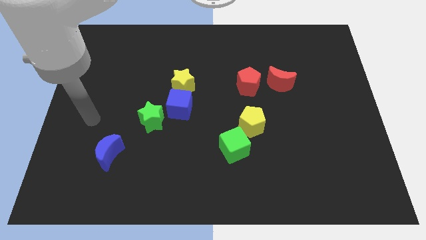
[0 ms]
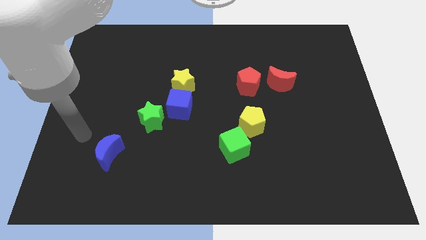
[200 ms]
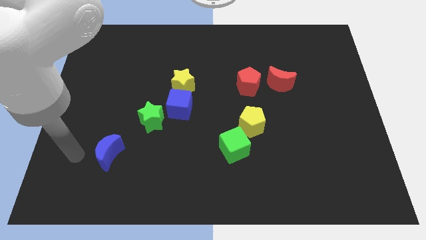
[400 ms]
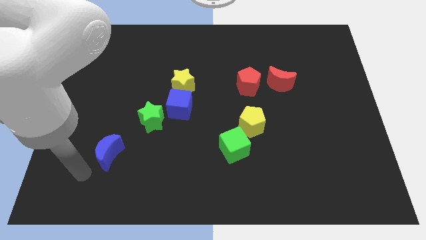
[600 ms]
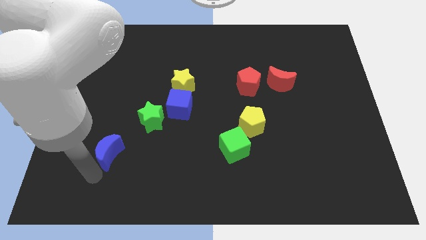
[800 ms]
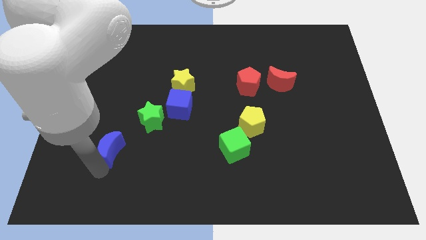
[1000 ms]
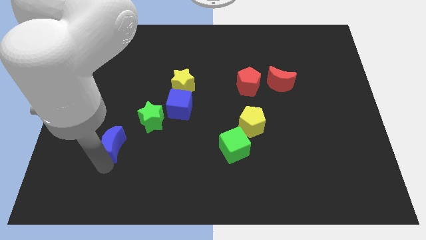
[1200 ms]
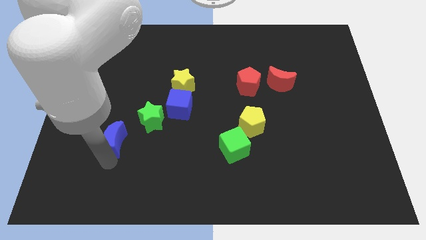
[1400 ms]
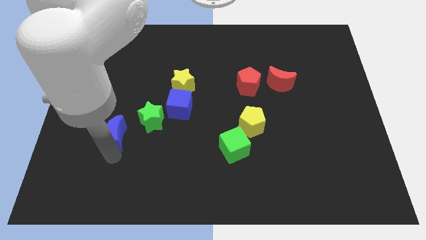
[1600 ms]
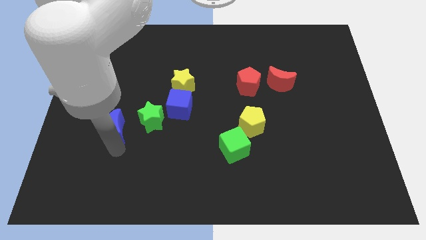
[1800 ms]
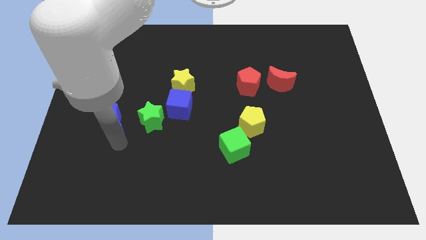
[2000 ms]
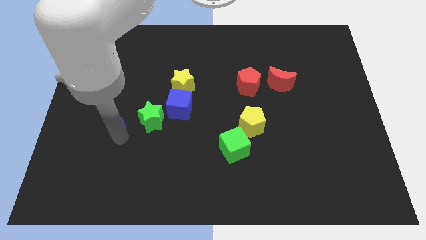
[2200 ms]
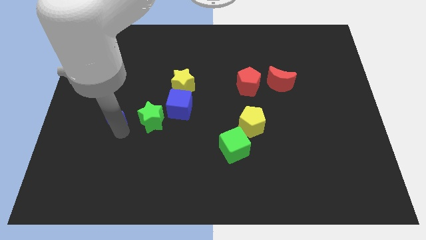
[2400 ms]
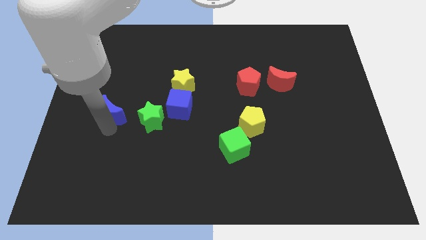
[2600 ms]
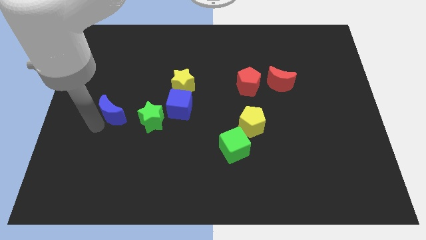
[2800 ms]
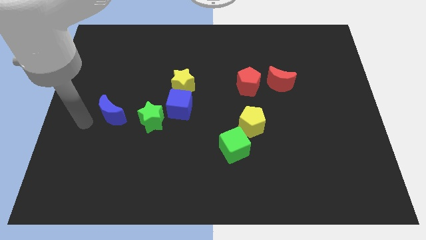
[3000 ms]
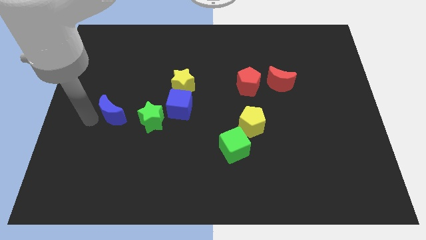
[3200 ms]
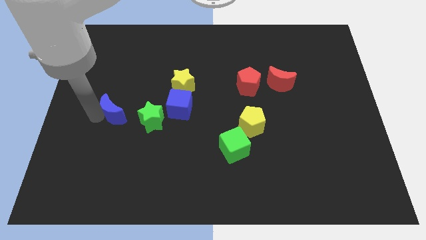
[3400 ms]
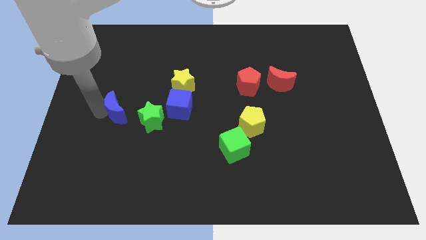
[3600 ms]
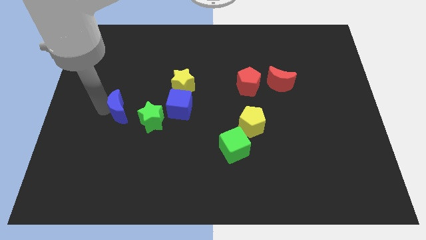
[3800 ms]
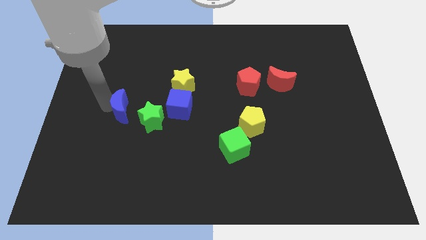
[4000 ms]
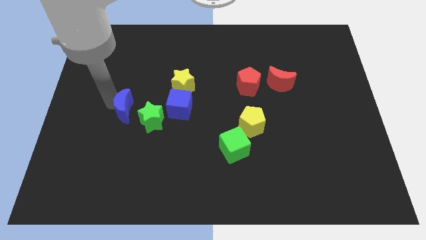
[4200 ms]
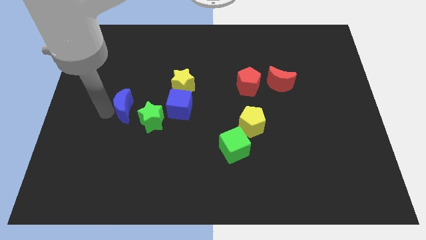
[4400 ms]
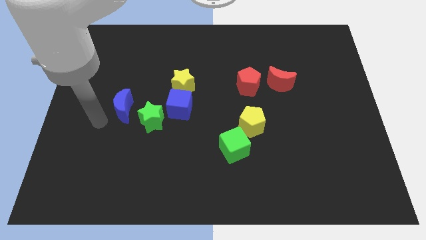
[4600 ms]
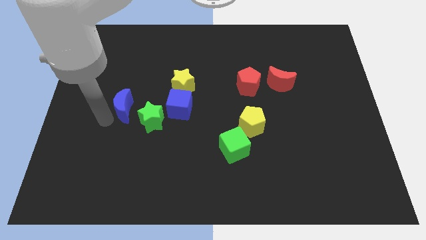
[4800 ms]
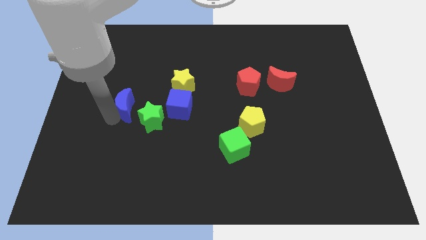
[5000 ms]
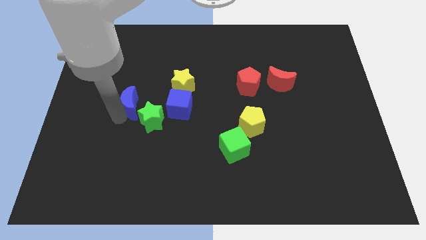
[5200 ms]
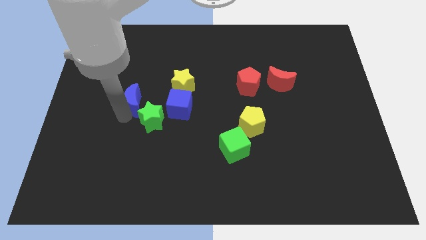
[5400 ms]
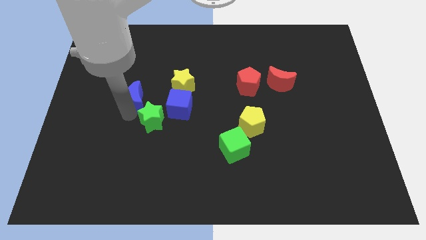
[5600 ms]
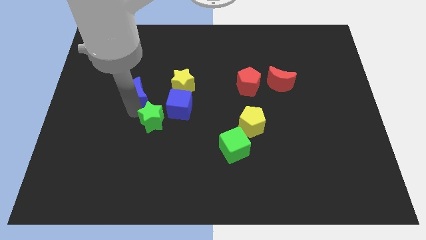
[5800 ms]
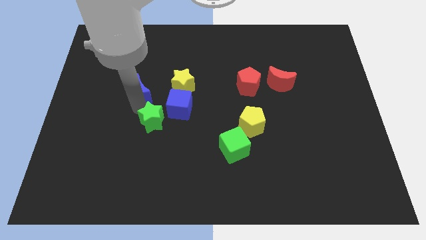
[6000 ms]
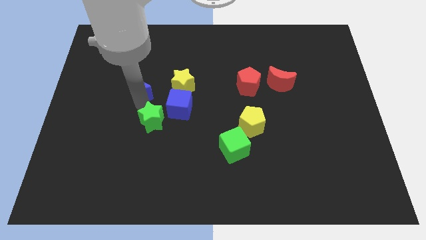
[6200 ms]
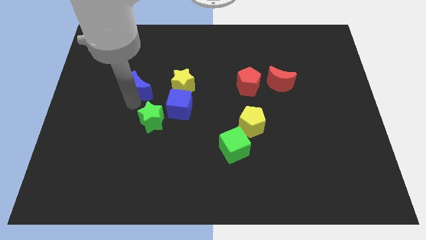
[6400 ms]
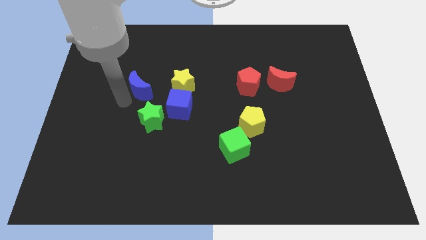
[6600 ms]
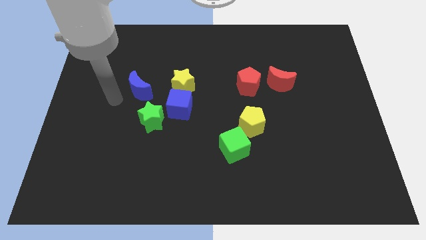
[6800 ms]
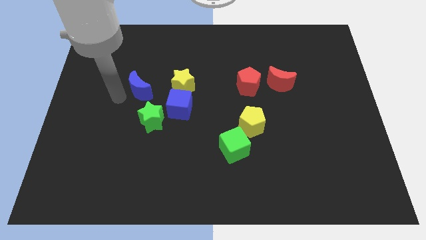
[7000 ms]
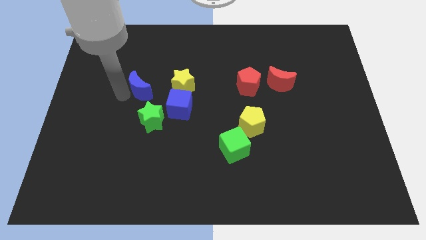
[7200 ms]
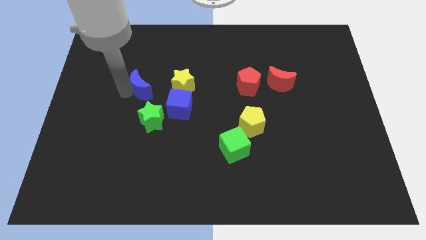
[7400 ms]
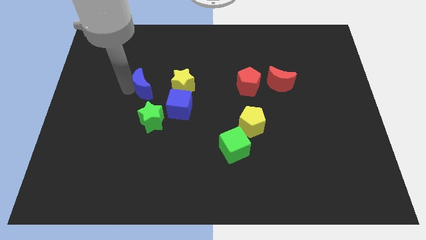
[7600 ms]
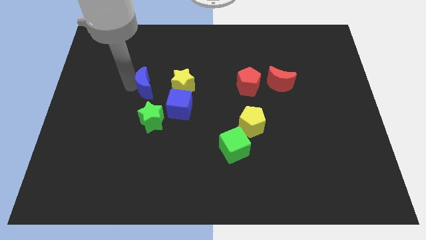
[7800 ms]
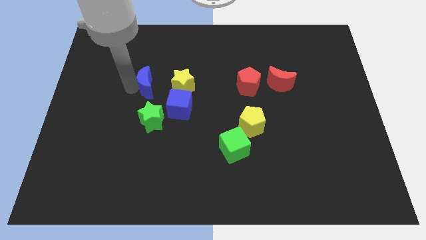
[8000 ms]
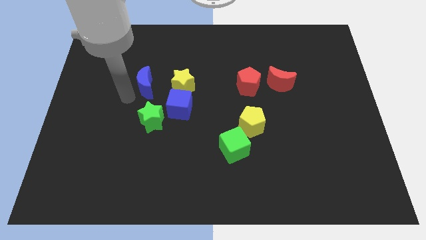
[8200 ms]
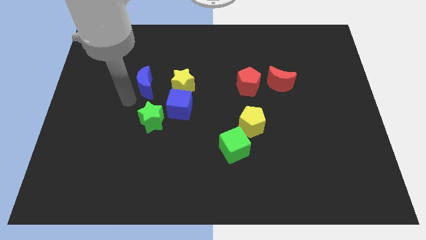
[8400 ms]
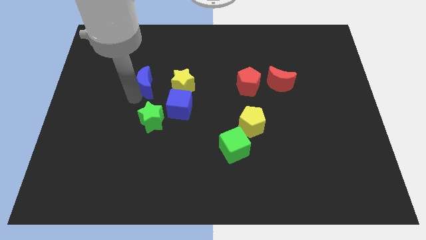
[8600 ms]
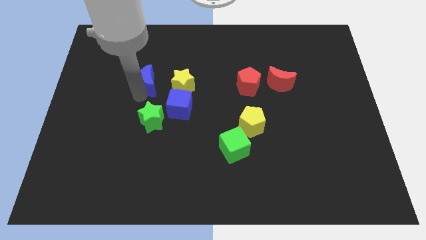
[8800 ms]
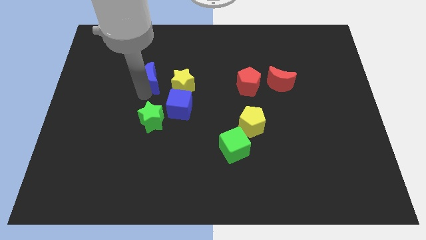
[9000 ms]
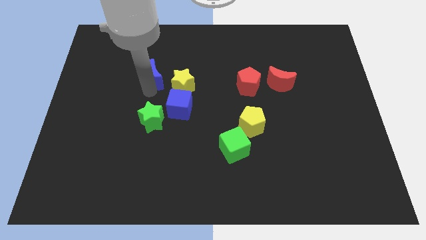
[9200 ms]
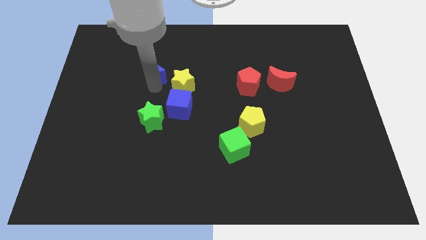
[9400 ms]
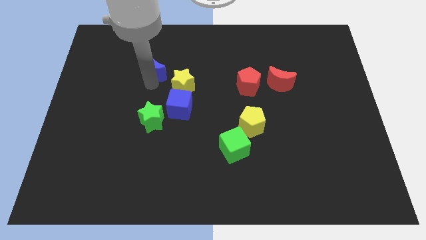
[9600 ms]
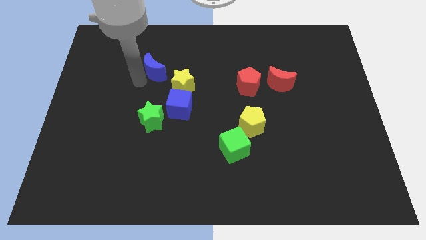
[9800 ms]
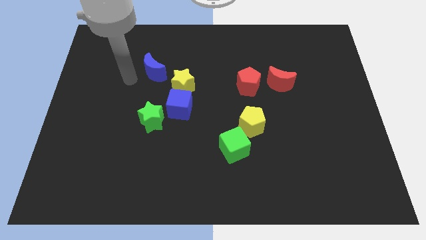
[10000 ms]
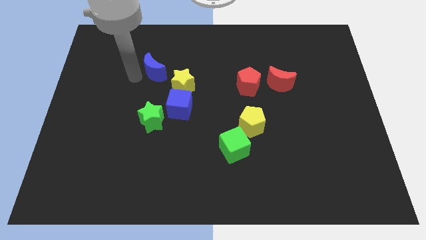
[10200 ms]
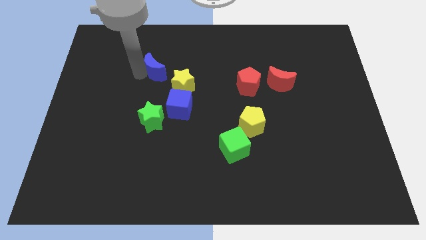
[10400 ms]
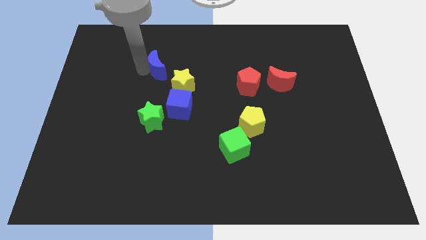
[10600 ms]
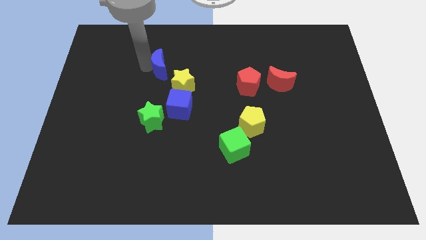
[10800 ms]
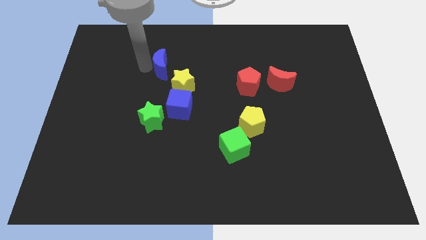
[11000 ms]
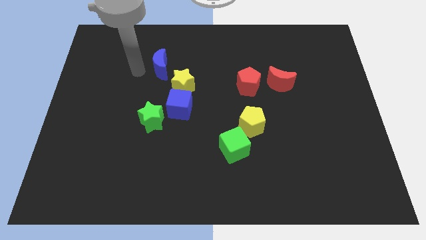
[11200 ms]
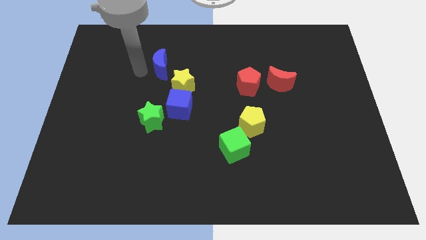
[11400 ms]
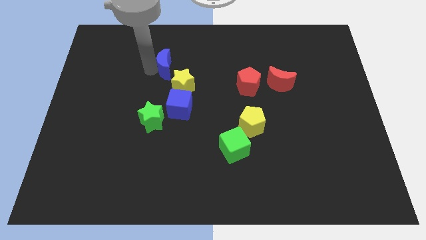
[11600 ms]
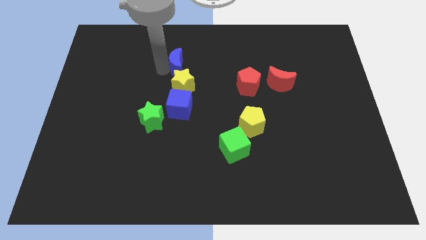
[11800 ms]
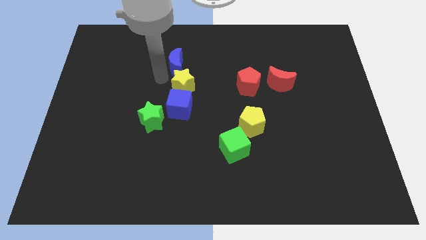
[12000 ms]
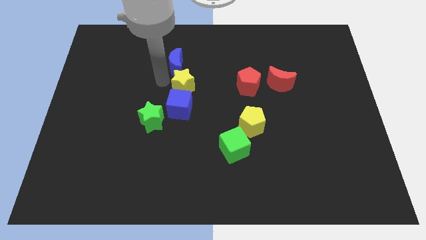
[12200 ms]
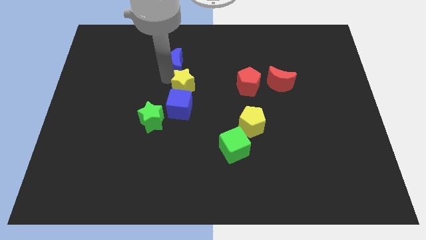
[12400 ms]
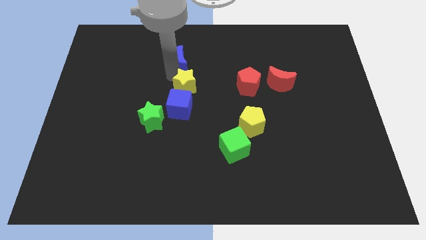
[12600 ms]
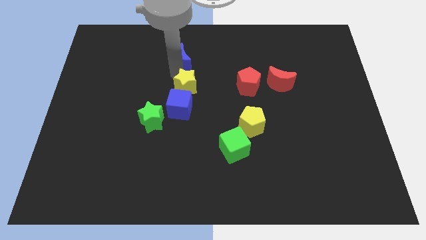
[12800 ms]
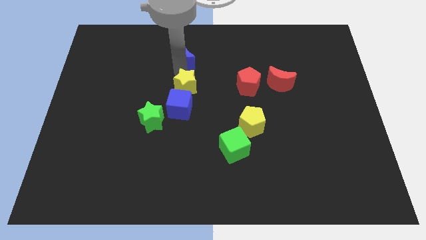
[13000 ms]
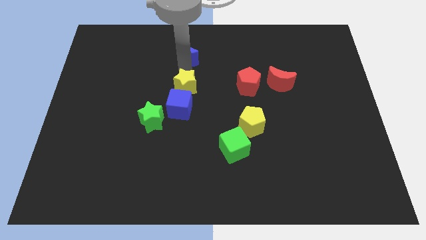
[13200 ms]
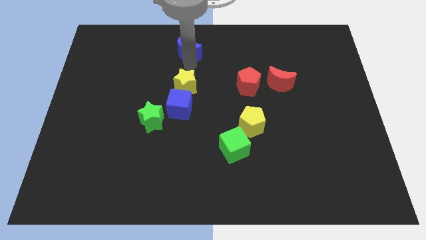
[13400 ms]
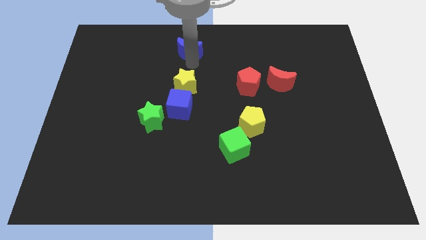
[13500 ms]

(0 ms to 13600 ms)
put the blue moon to the top

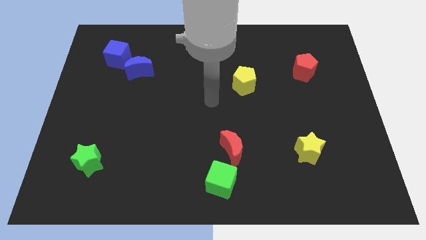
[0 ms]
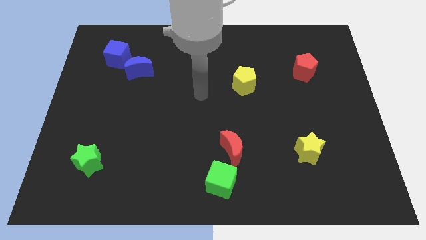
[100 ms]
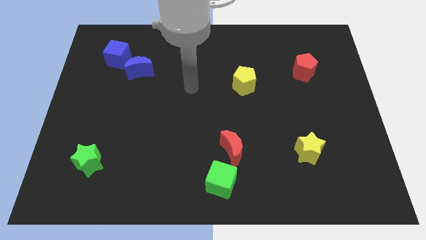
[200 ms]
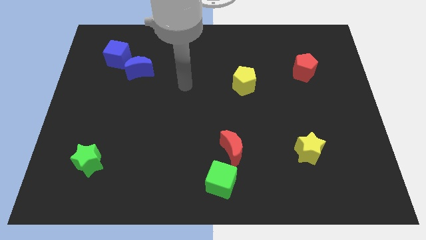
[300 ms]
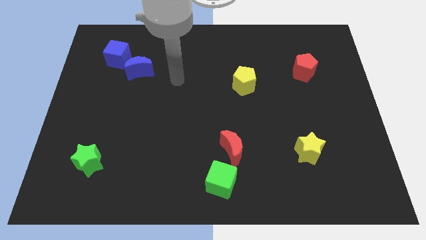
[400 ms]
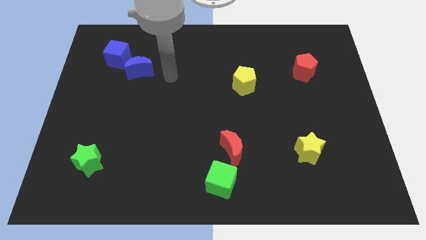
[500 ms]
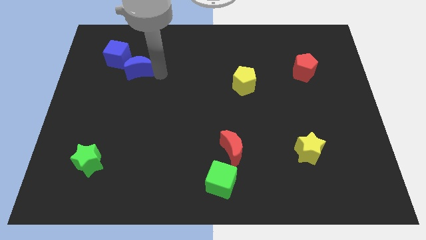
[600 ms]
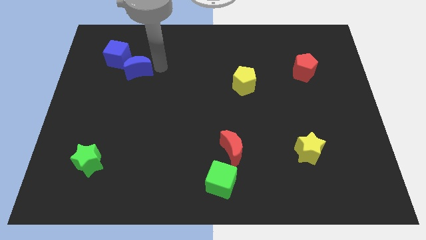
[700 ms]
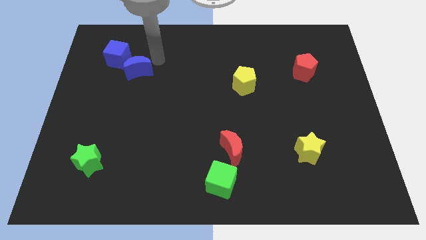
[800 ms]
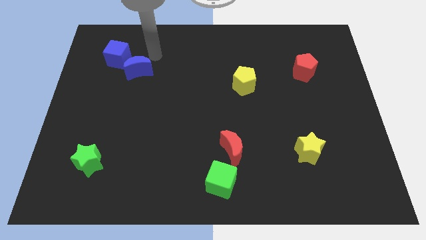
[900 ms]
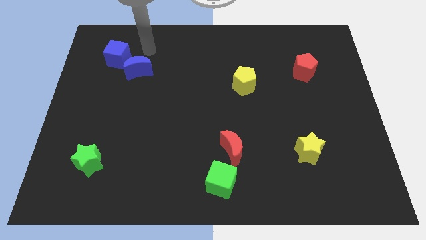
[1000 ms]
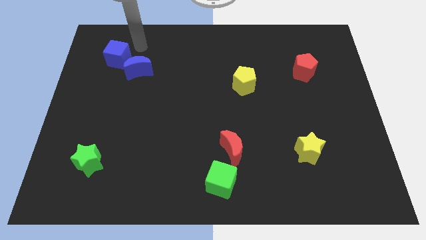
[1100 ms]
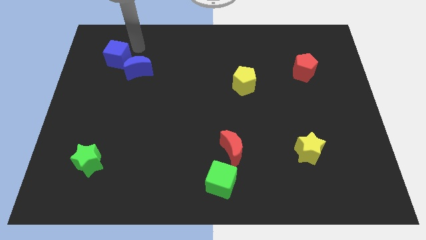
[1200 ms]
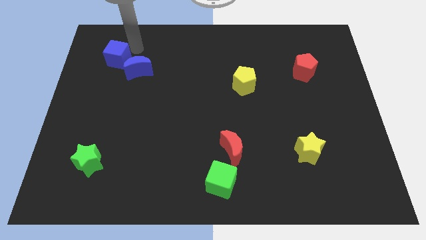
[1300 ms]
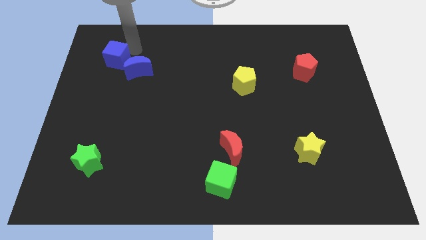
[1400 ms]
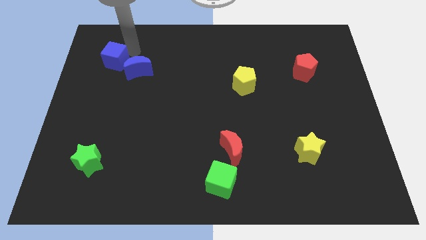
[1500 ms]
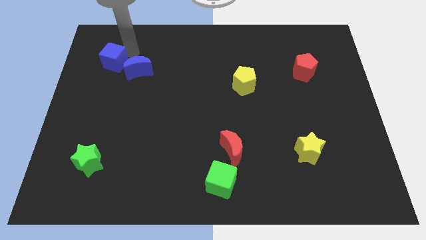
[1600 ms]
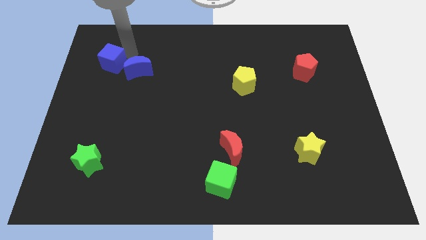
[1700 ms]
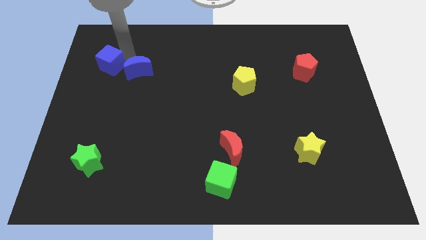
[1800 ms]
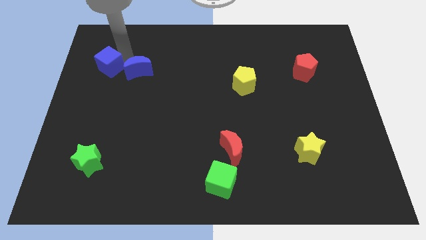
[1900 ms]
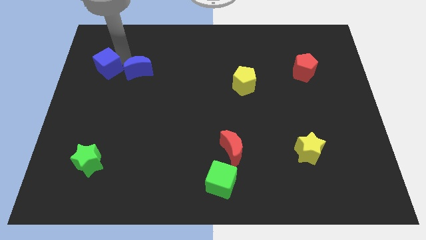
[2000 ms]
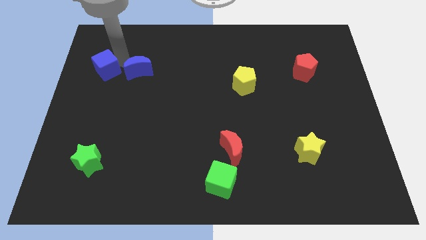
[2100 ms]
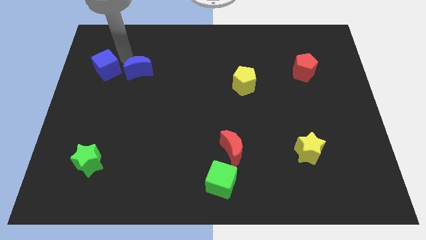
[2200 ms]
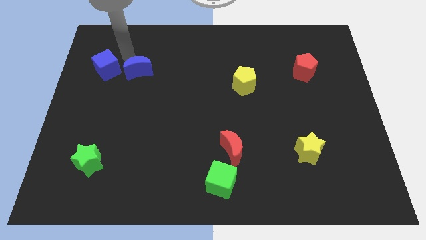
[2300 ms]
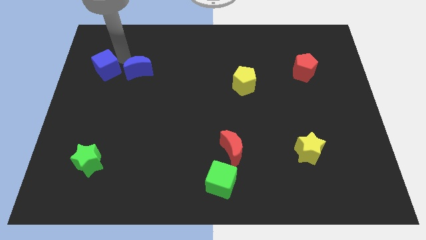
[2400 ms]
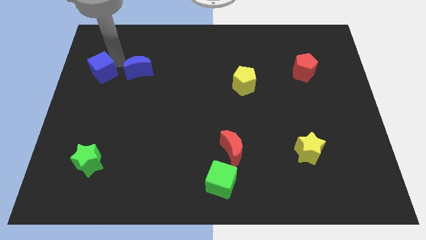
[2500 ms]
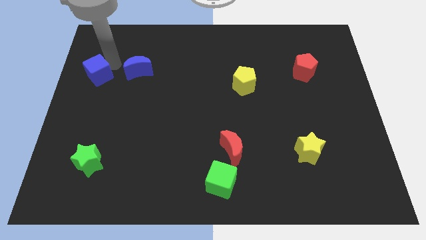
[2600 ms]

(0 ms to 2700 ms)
put the blue cube to the left side of the board
